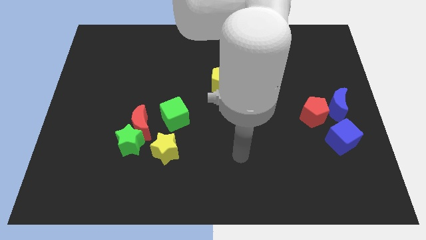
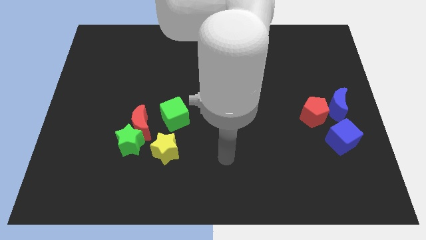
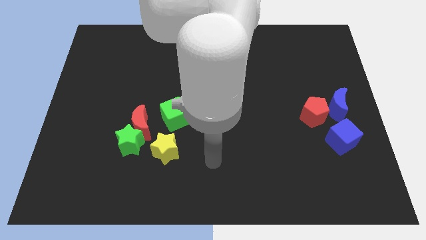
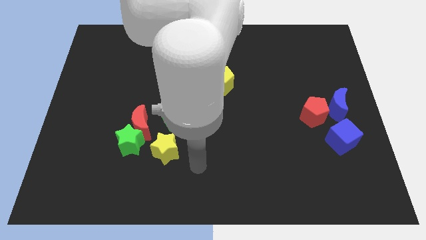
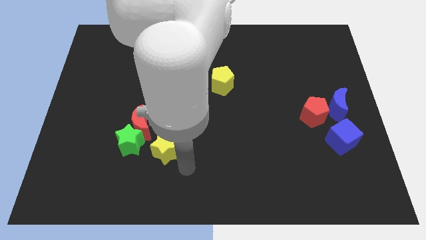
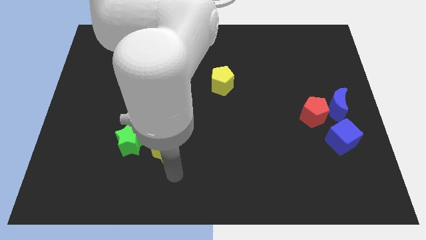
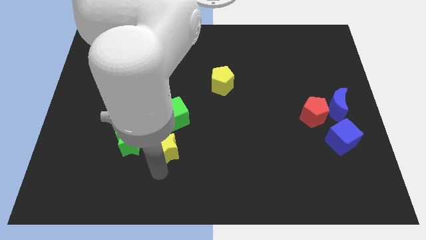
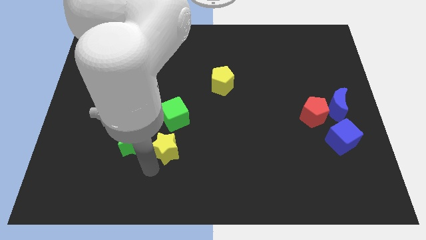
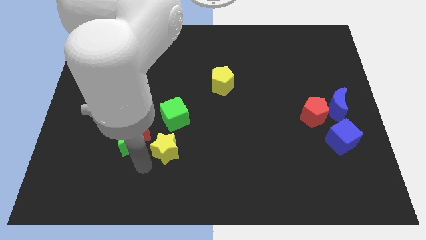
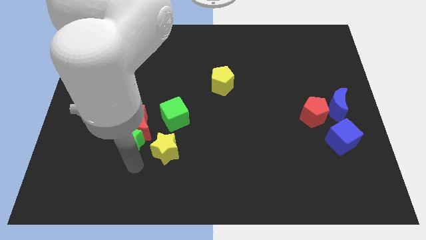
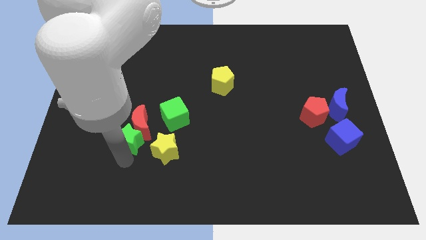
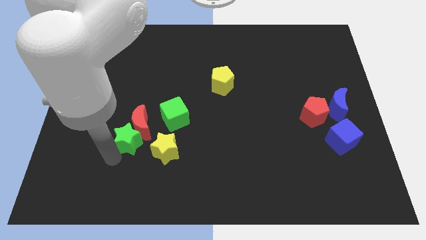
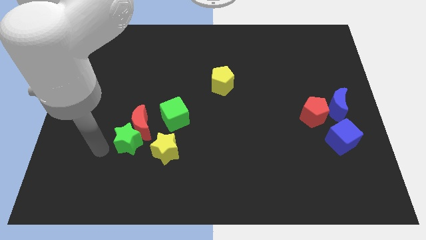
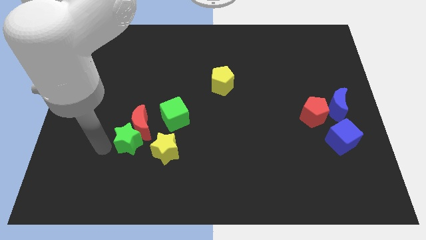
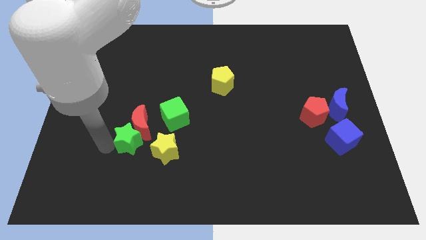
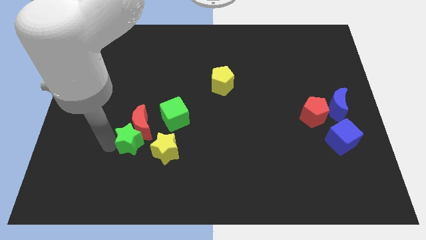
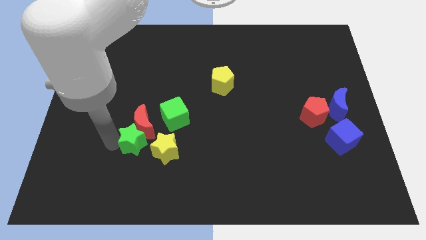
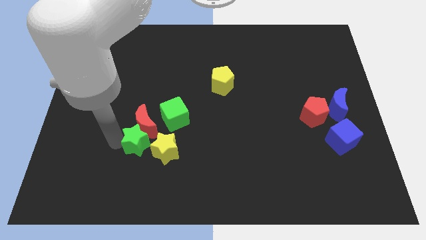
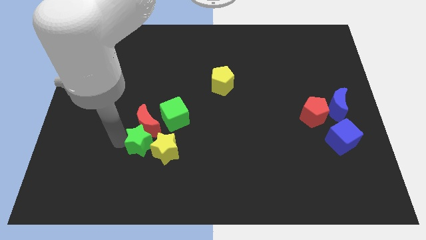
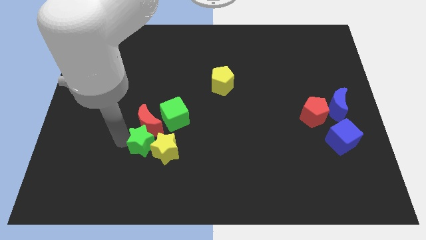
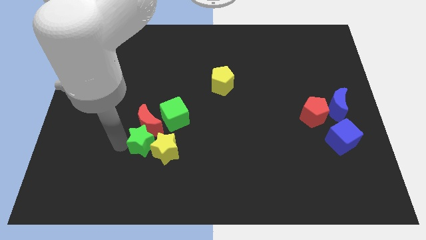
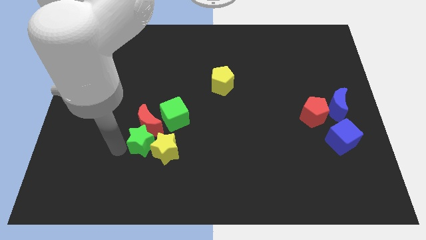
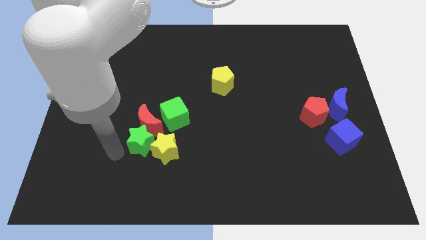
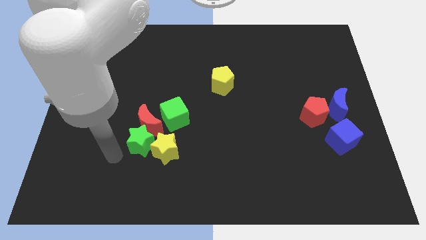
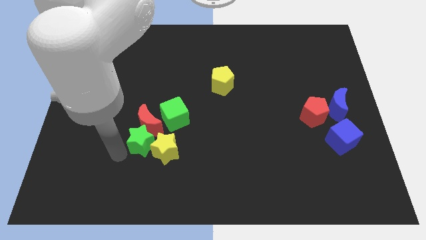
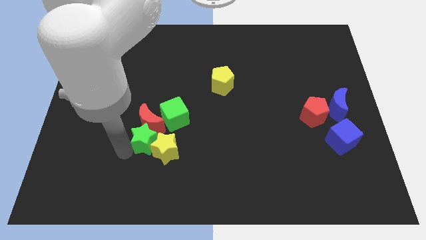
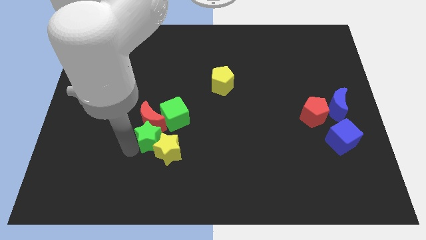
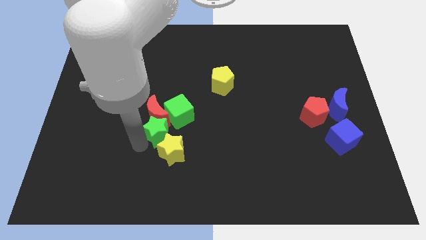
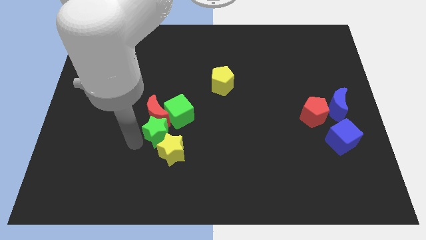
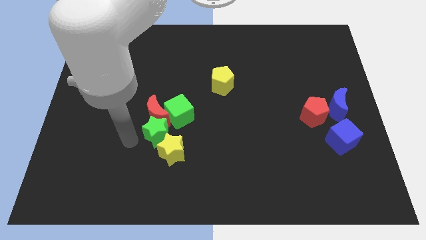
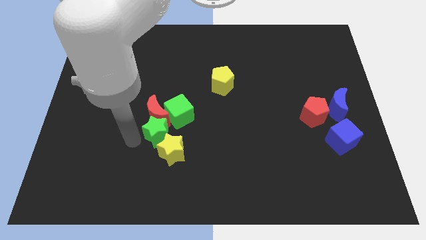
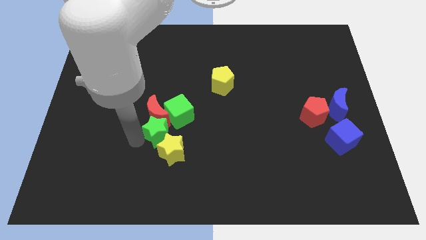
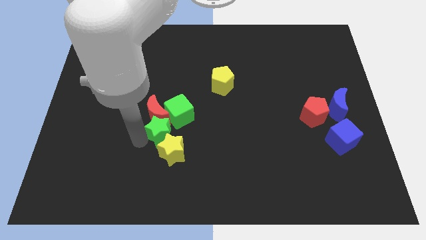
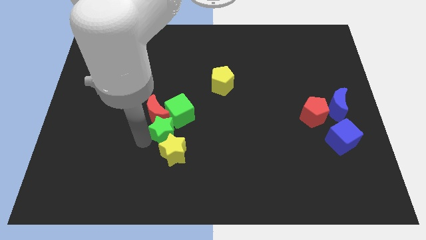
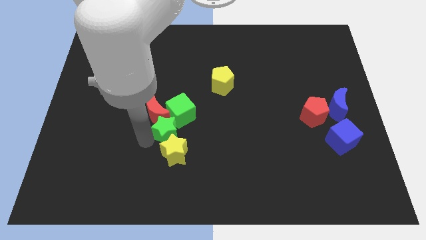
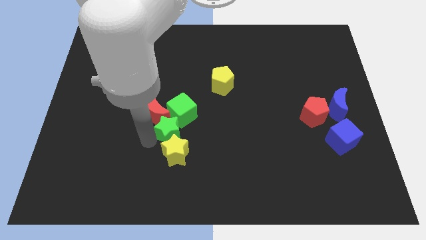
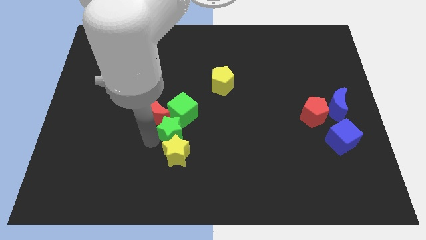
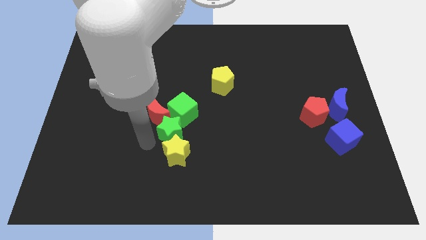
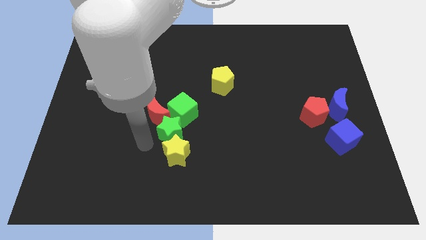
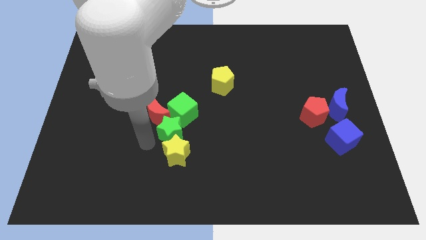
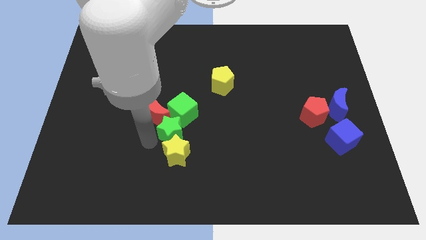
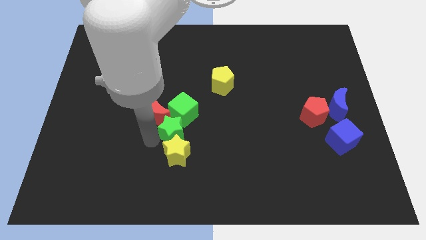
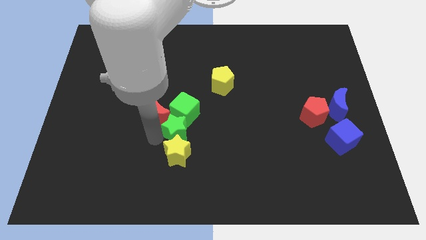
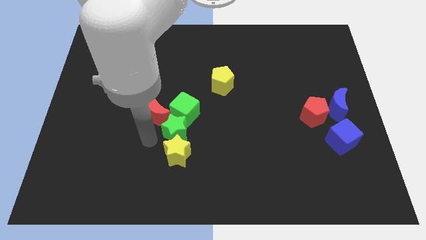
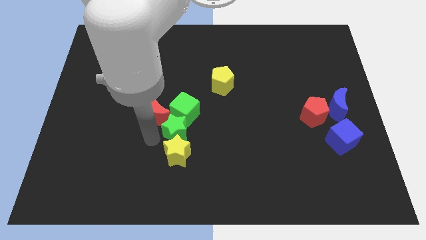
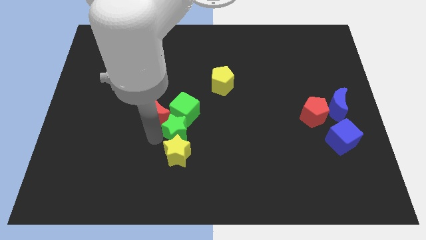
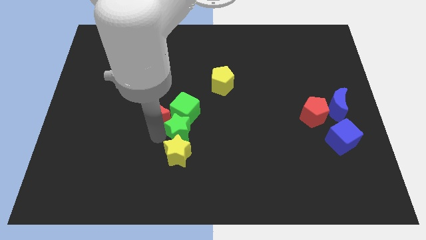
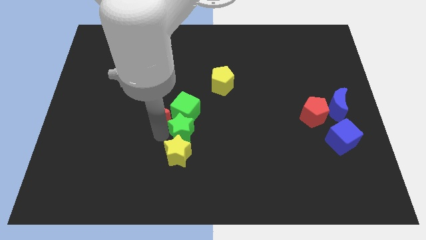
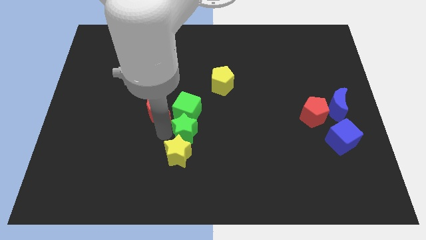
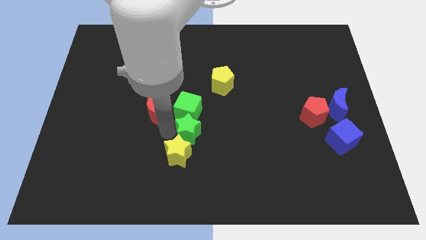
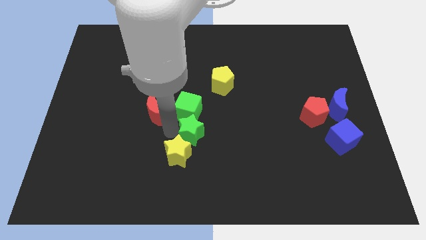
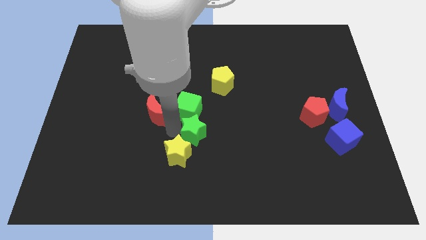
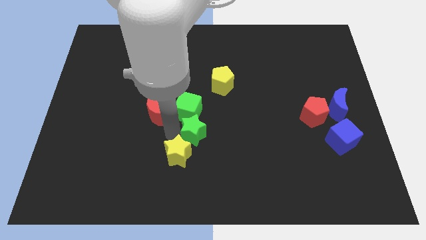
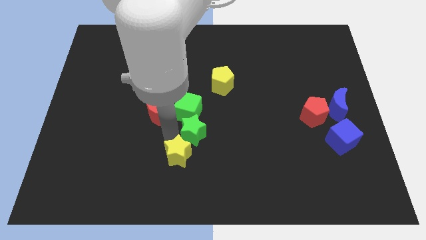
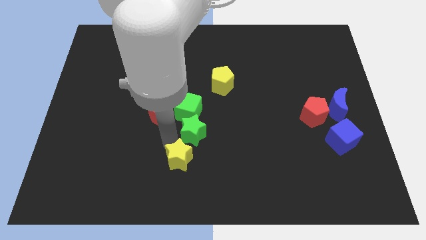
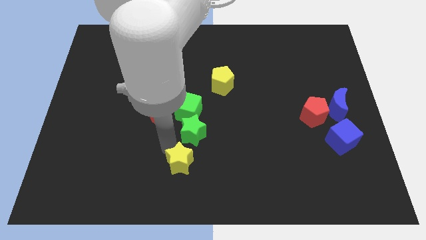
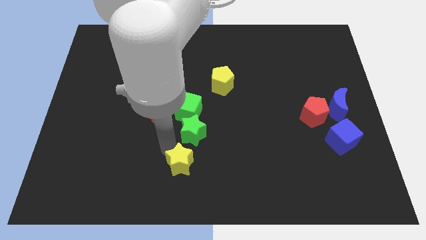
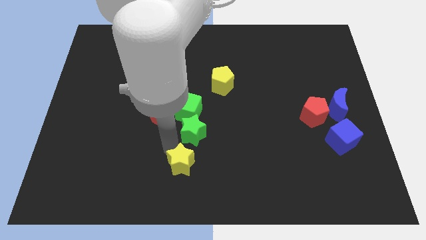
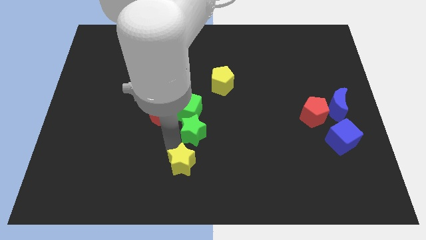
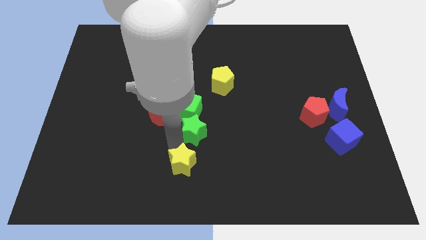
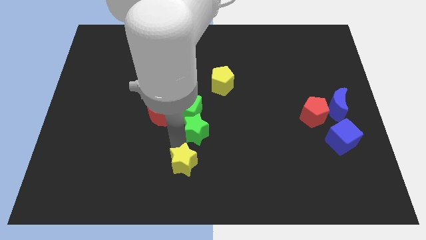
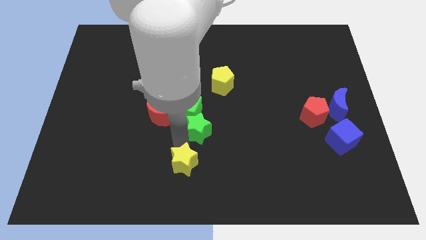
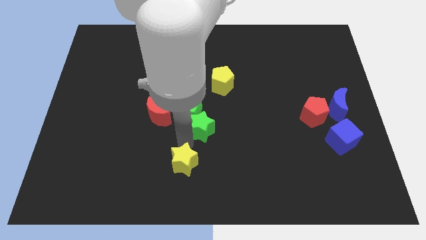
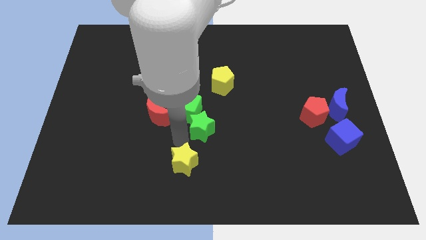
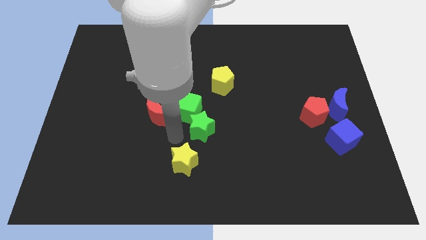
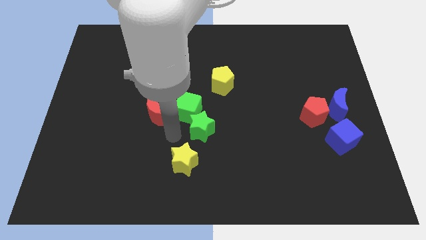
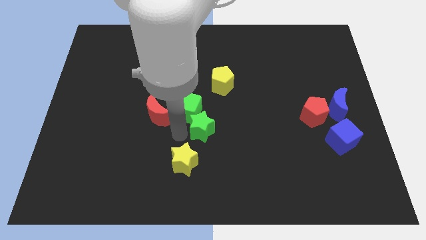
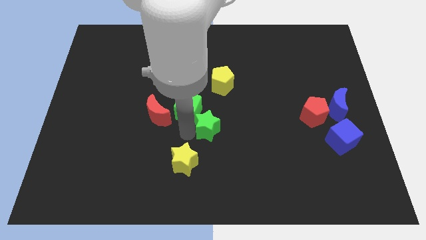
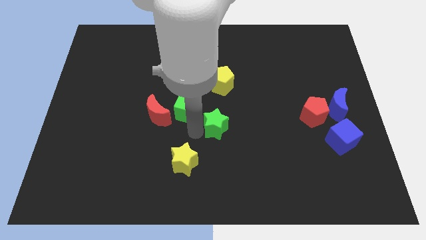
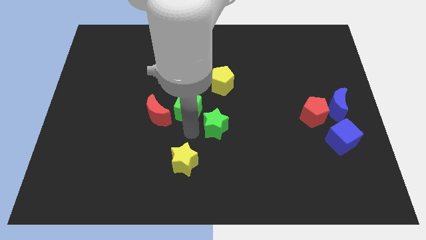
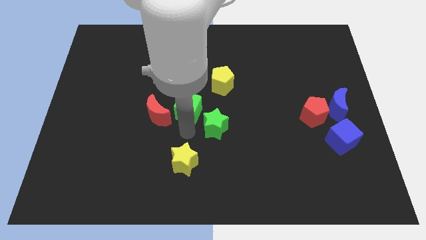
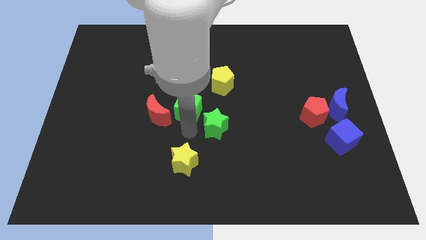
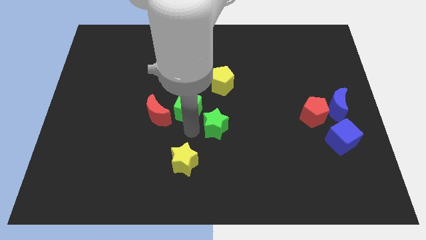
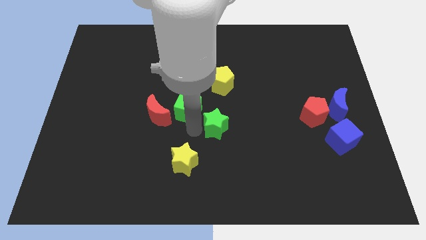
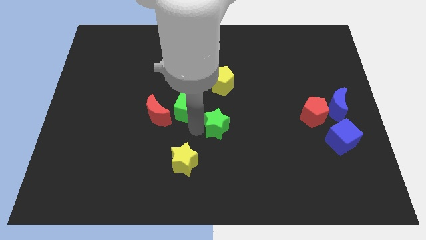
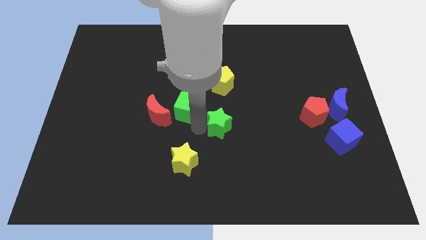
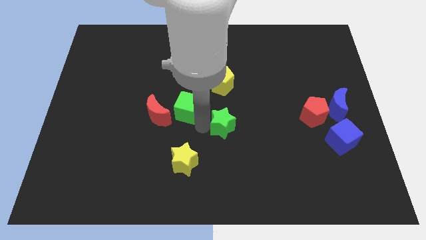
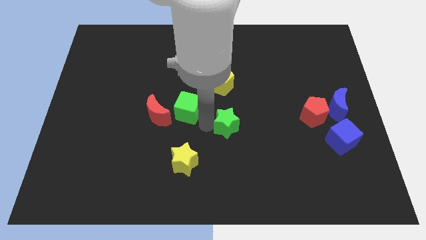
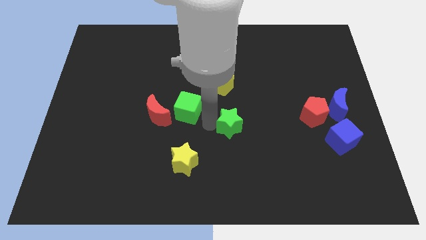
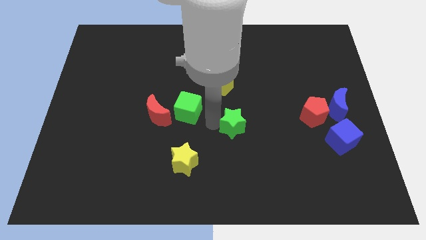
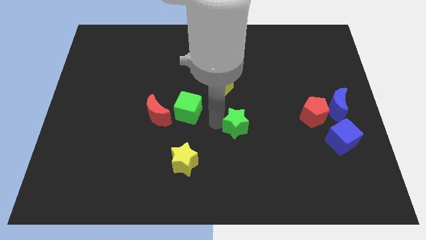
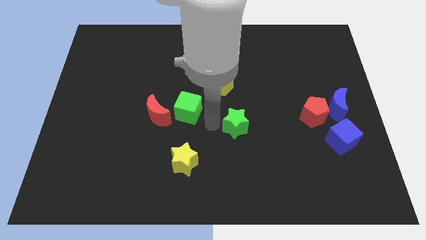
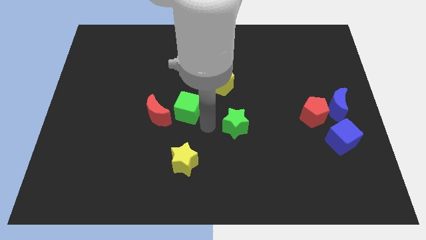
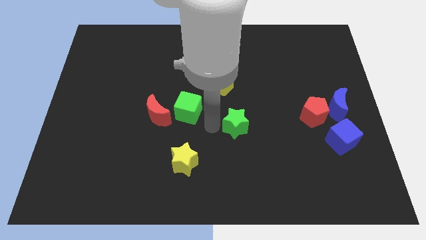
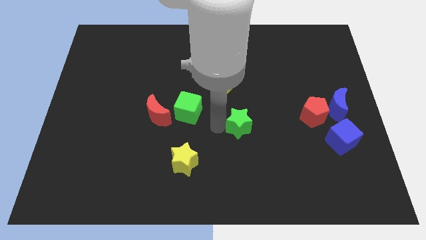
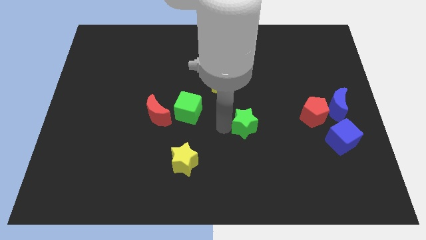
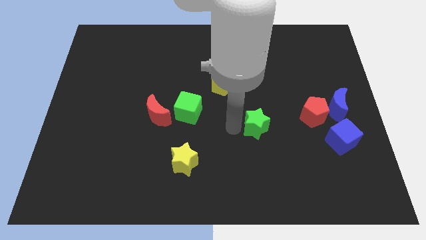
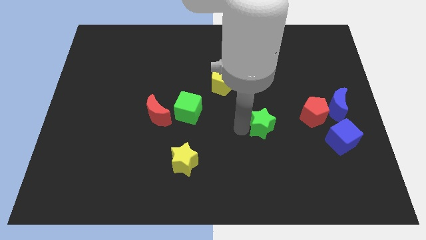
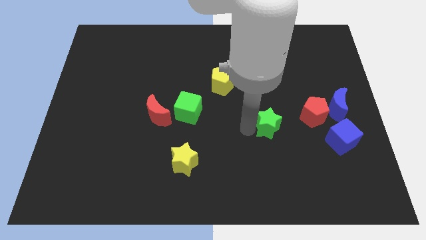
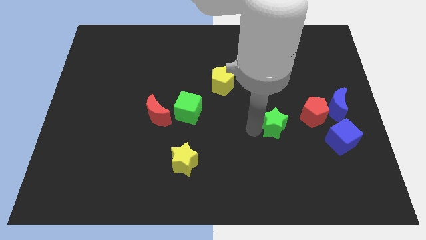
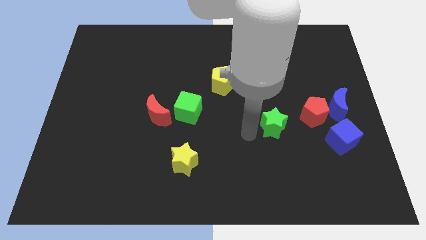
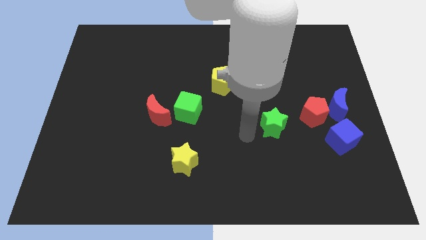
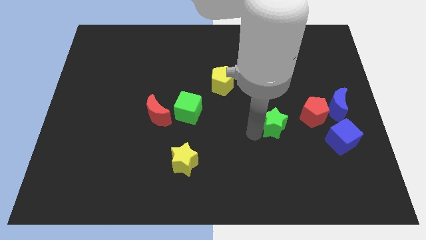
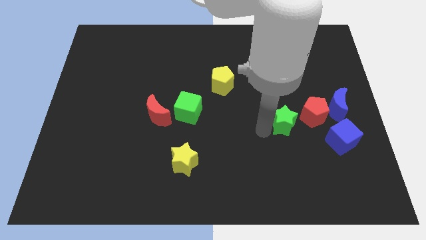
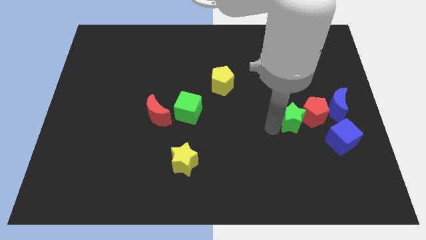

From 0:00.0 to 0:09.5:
slide the green star towards the red pentagon
